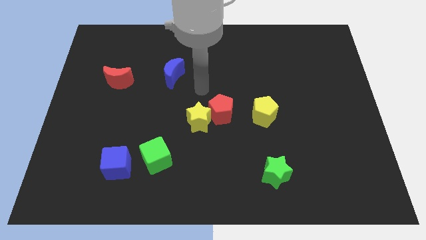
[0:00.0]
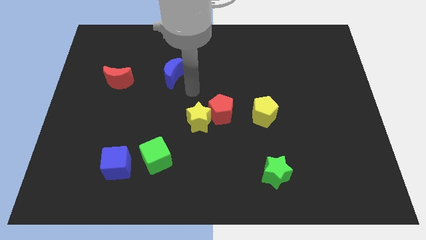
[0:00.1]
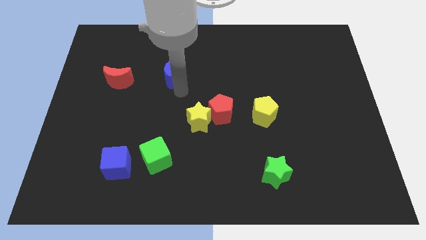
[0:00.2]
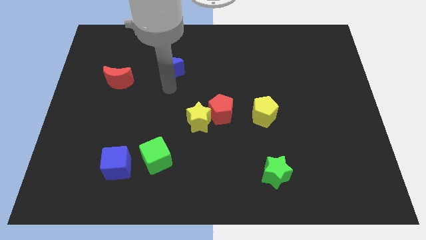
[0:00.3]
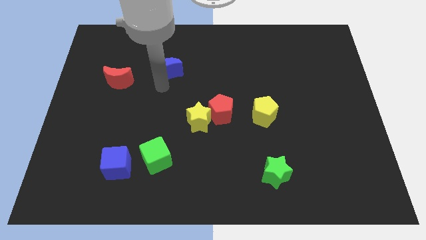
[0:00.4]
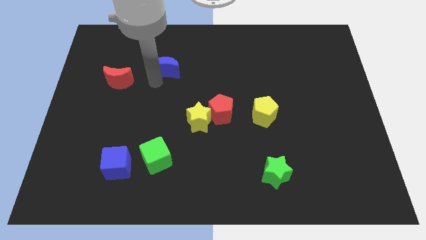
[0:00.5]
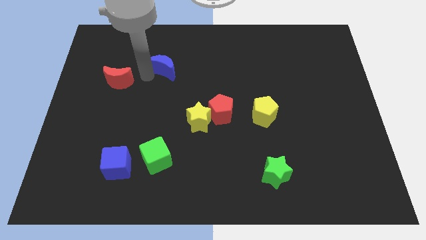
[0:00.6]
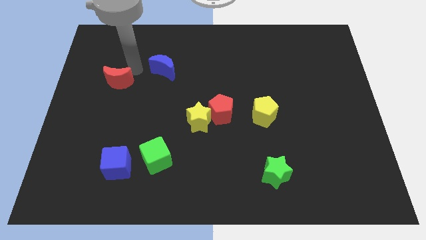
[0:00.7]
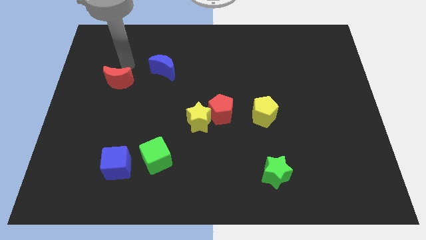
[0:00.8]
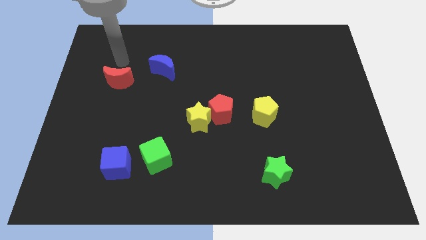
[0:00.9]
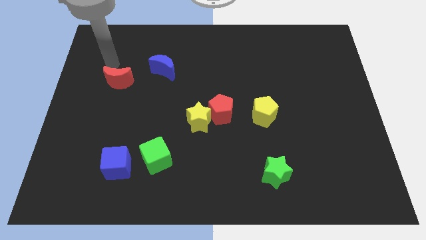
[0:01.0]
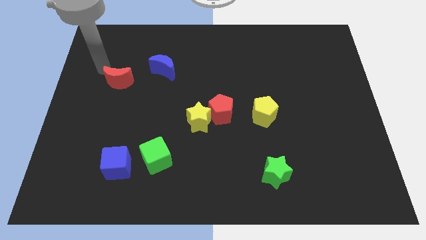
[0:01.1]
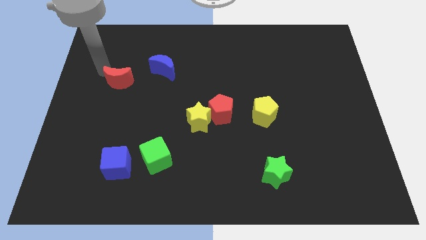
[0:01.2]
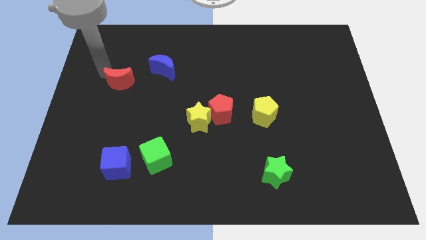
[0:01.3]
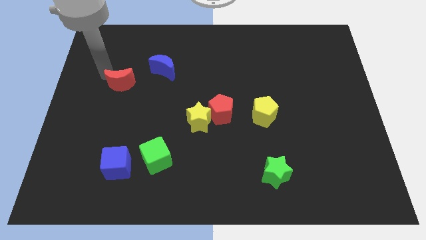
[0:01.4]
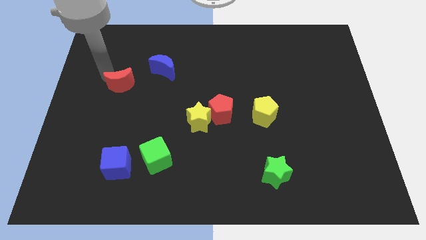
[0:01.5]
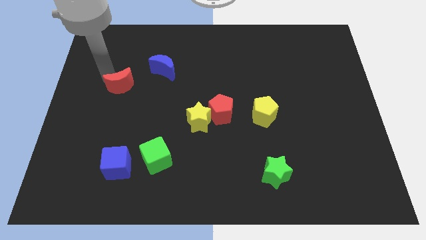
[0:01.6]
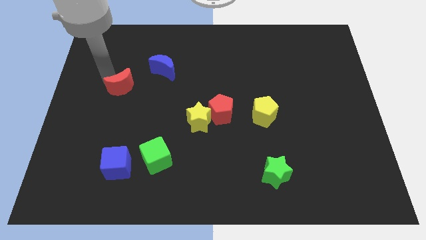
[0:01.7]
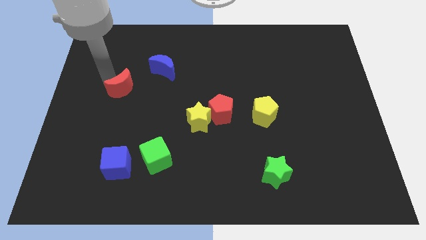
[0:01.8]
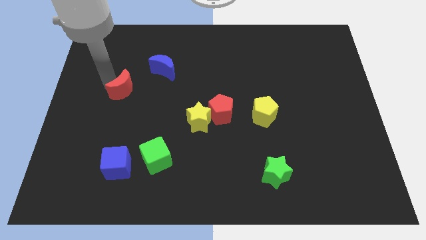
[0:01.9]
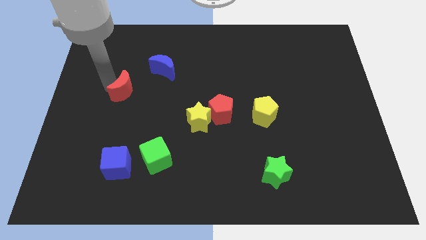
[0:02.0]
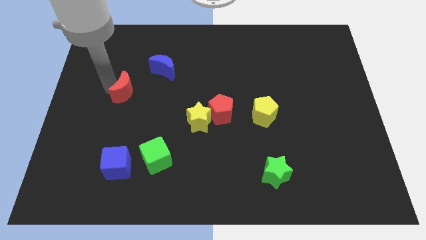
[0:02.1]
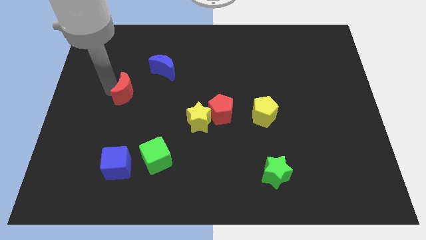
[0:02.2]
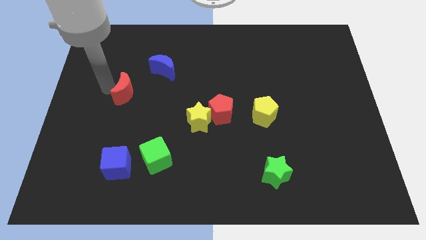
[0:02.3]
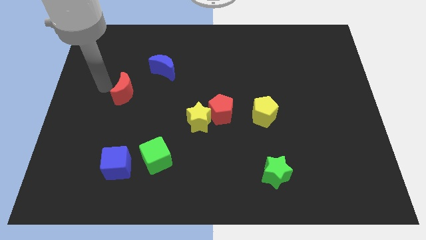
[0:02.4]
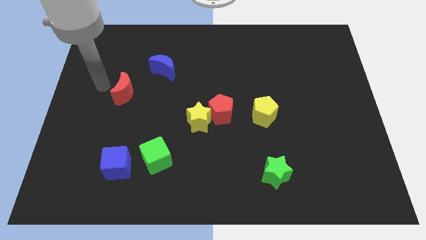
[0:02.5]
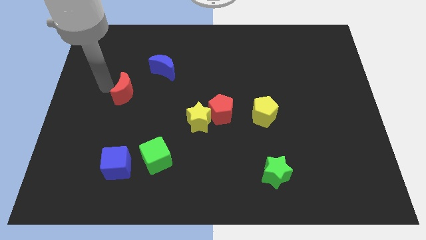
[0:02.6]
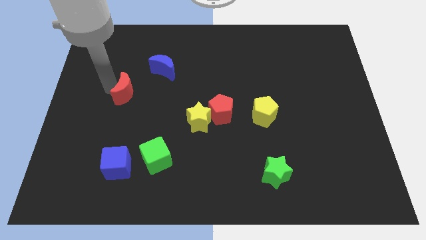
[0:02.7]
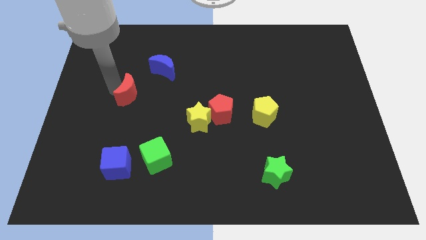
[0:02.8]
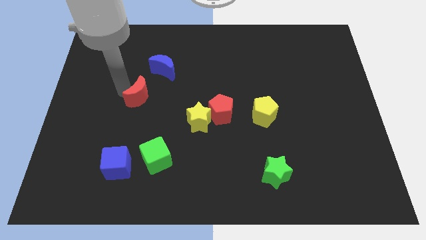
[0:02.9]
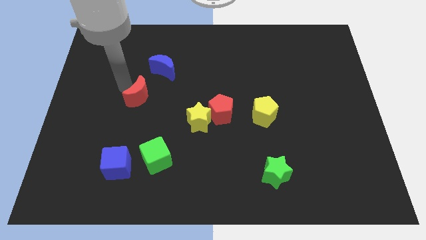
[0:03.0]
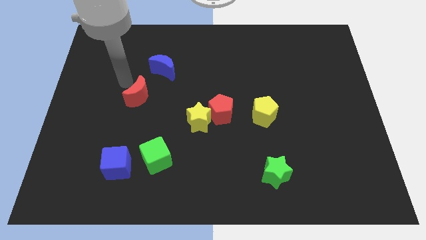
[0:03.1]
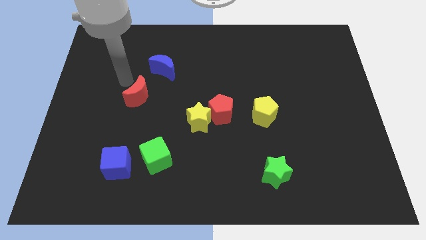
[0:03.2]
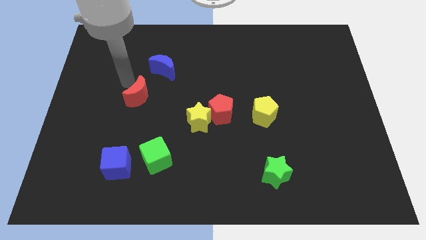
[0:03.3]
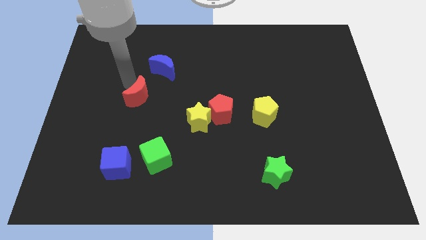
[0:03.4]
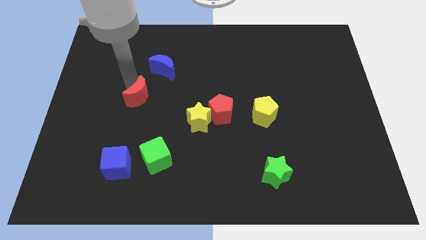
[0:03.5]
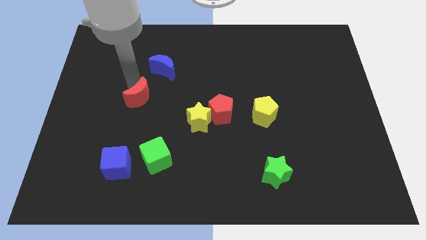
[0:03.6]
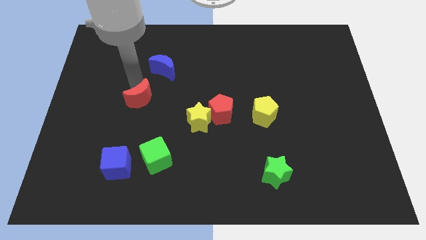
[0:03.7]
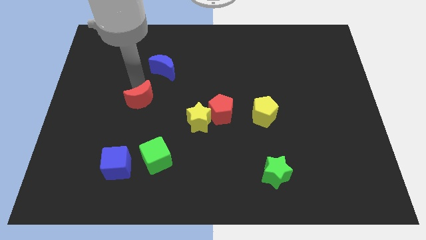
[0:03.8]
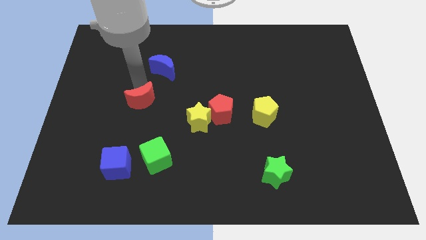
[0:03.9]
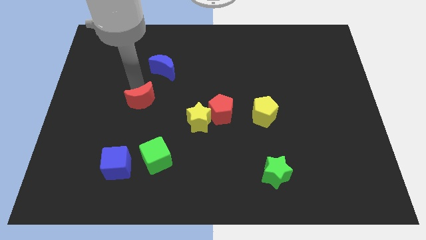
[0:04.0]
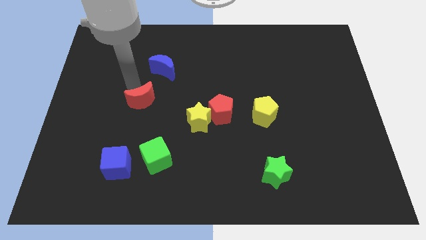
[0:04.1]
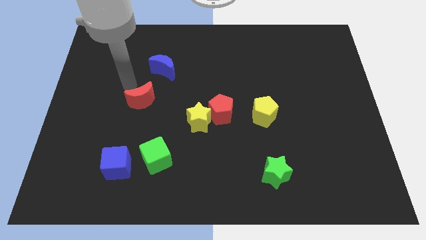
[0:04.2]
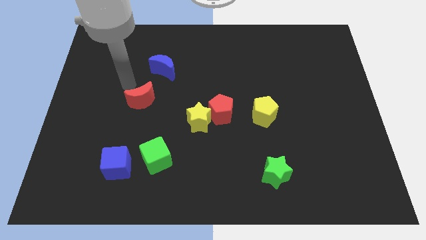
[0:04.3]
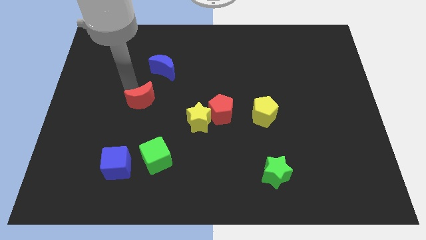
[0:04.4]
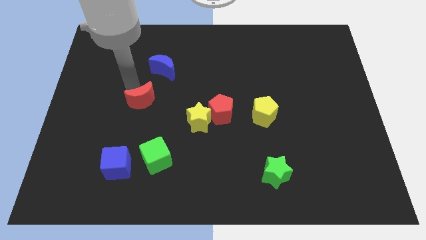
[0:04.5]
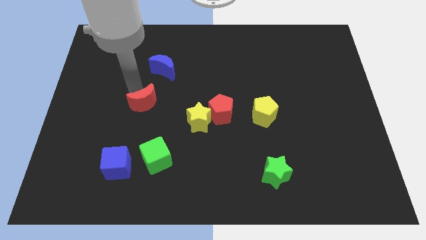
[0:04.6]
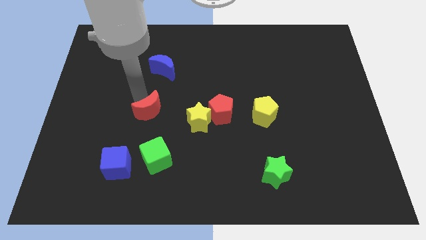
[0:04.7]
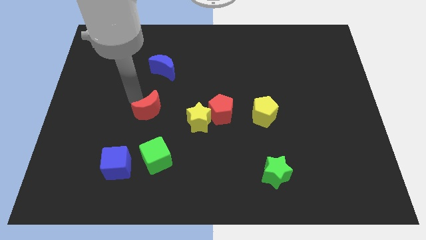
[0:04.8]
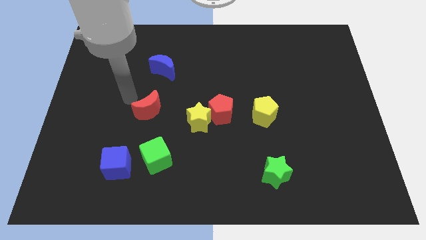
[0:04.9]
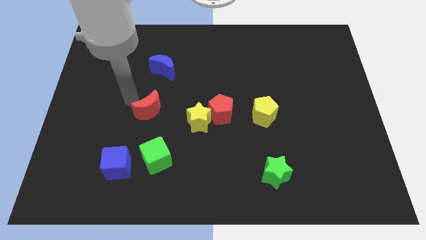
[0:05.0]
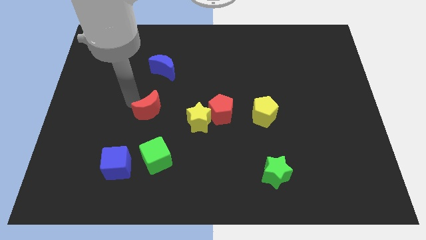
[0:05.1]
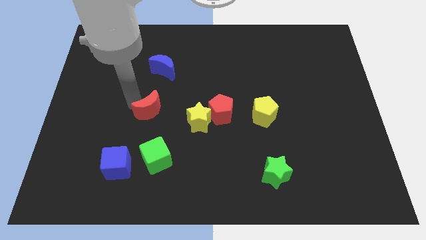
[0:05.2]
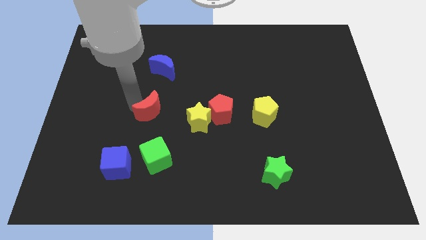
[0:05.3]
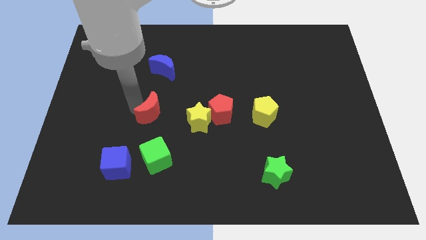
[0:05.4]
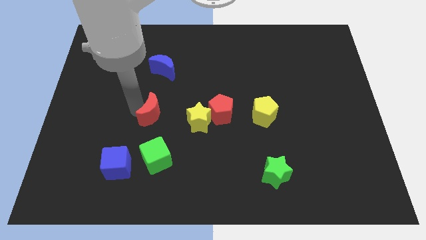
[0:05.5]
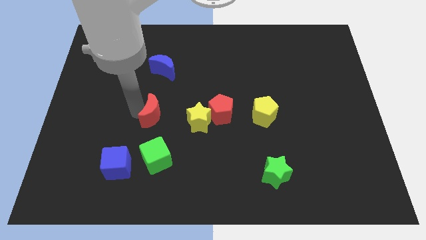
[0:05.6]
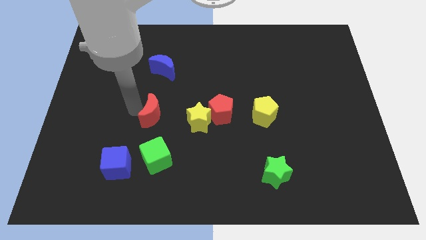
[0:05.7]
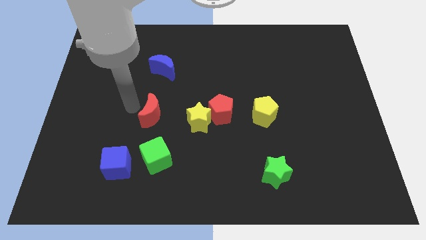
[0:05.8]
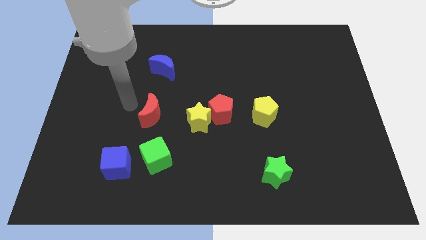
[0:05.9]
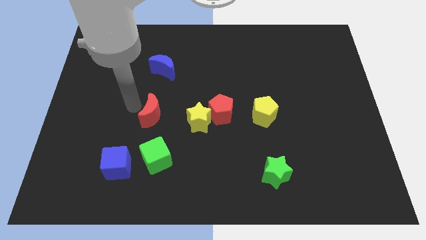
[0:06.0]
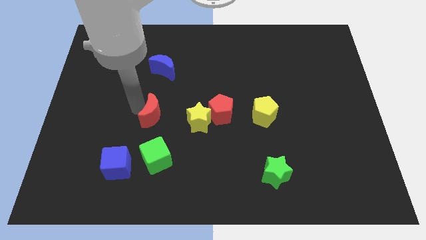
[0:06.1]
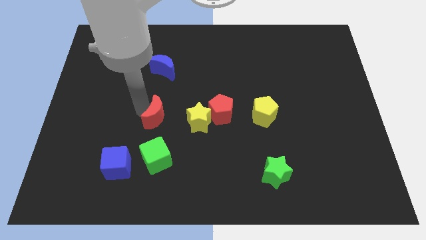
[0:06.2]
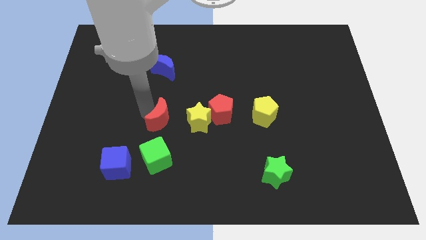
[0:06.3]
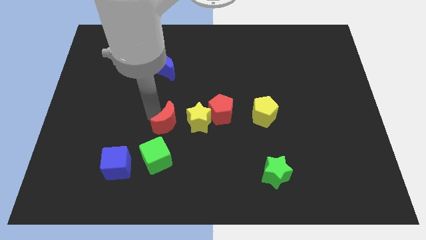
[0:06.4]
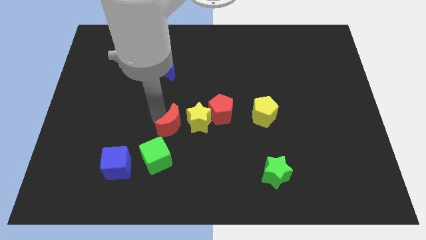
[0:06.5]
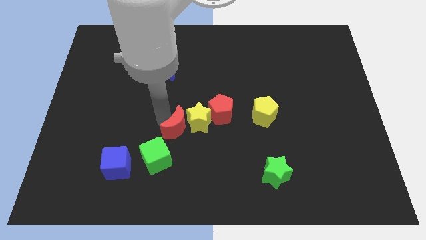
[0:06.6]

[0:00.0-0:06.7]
slide the red moon downwards and then right

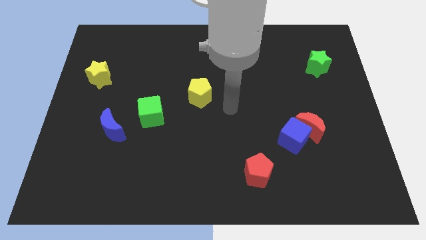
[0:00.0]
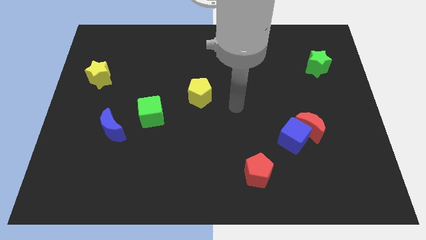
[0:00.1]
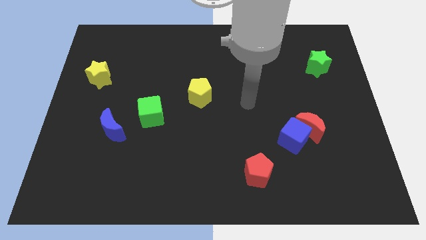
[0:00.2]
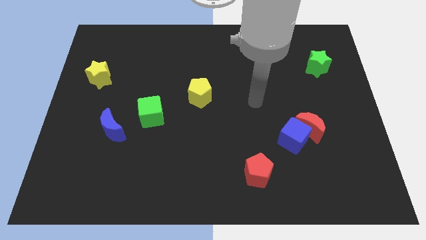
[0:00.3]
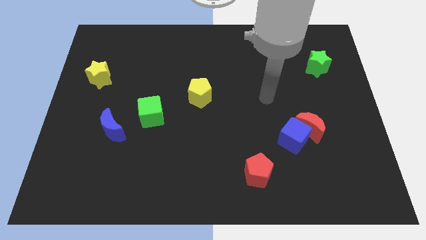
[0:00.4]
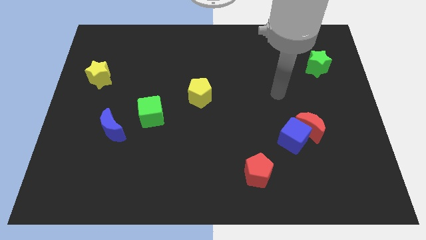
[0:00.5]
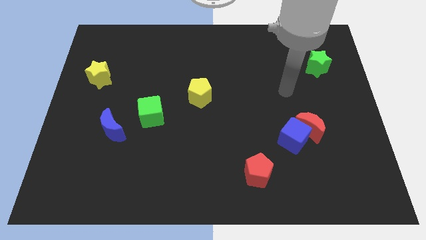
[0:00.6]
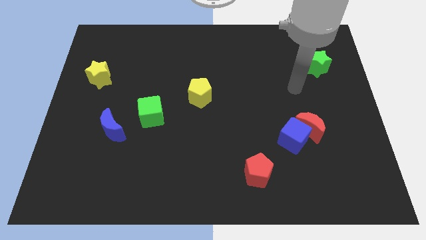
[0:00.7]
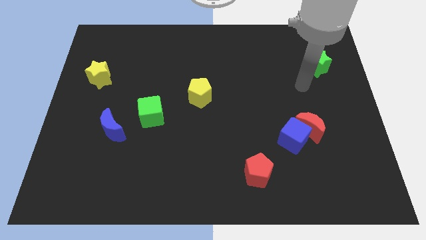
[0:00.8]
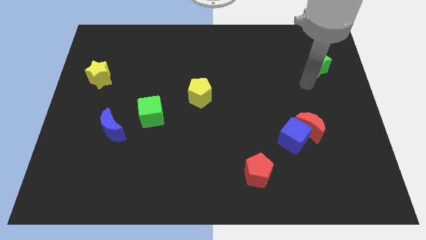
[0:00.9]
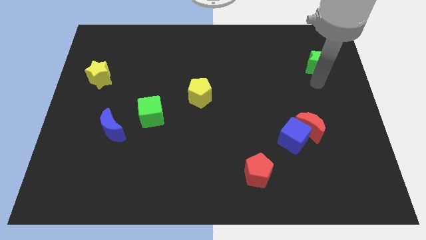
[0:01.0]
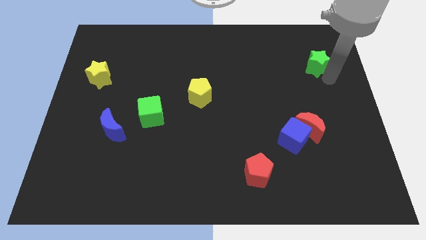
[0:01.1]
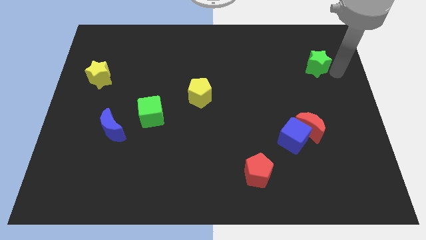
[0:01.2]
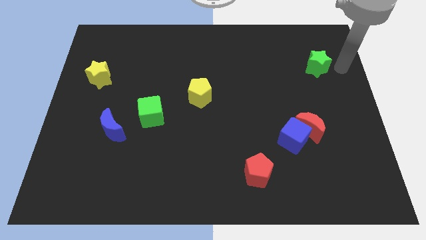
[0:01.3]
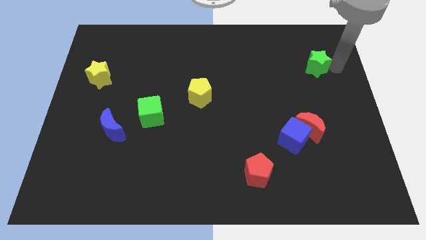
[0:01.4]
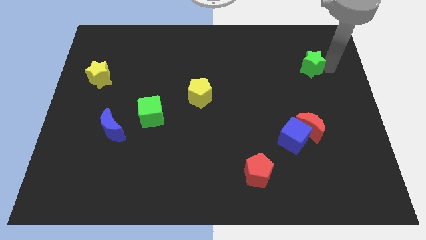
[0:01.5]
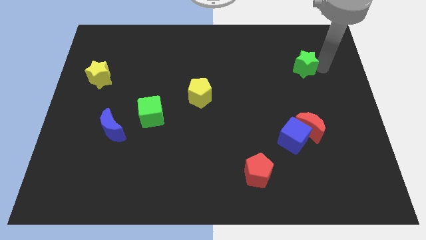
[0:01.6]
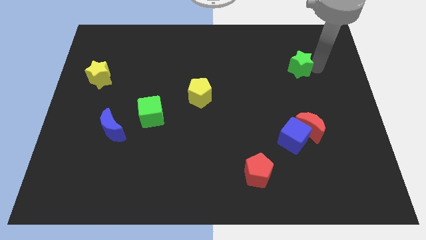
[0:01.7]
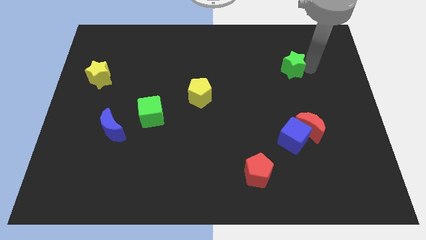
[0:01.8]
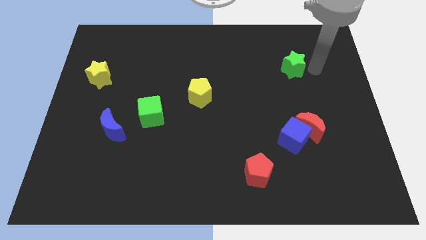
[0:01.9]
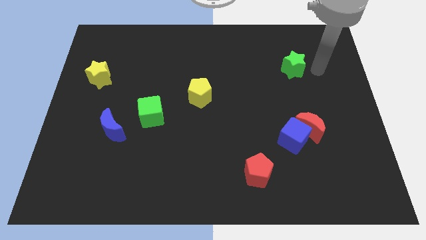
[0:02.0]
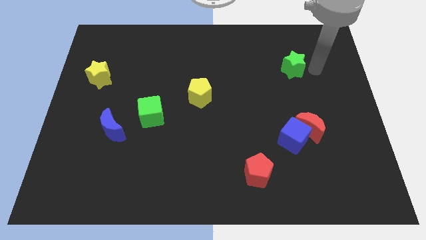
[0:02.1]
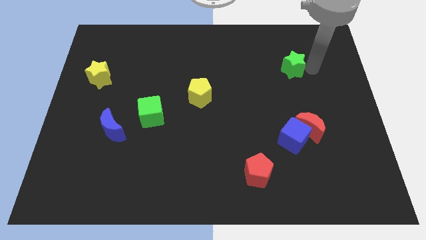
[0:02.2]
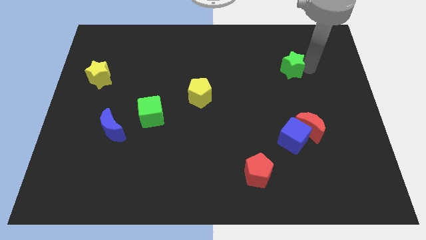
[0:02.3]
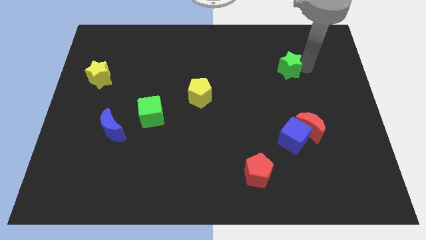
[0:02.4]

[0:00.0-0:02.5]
push the green star a bit to the left
